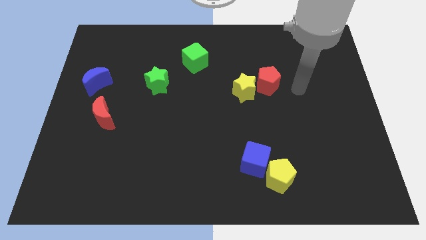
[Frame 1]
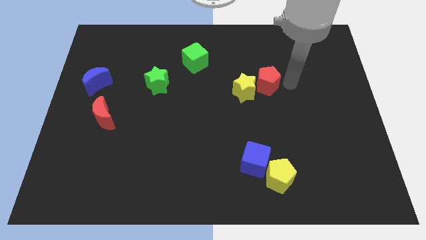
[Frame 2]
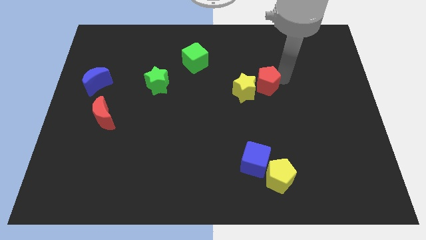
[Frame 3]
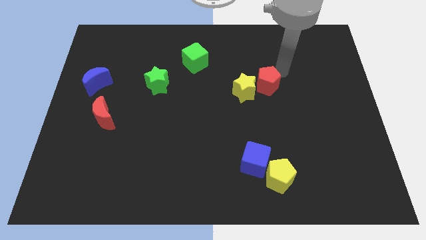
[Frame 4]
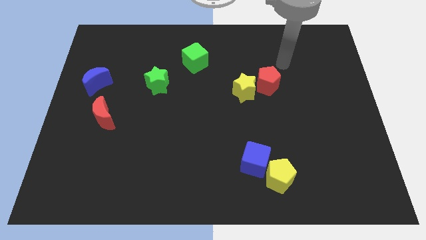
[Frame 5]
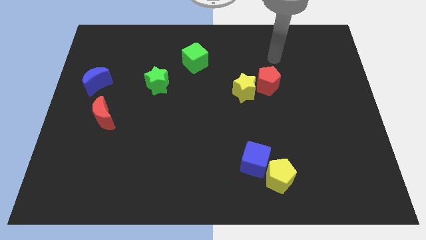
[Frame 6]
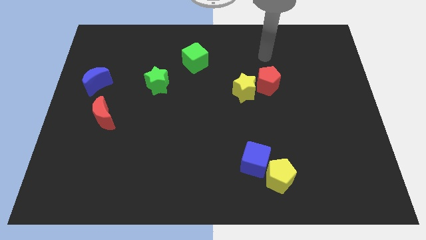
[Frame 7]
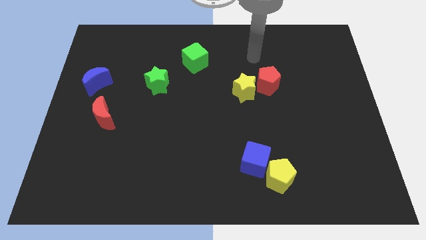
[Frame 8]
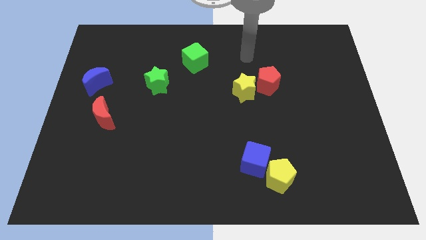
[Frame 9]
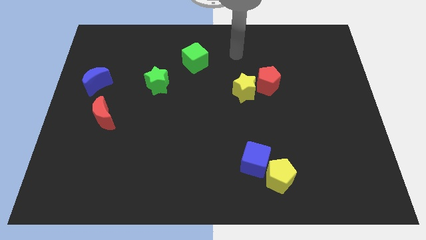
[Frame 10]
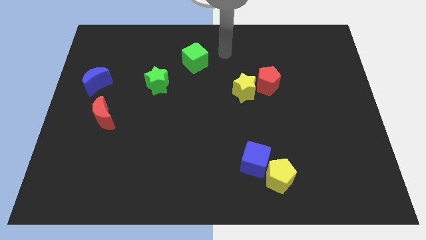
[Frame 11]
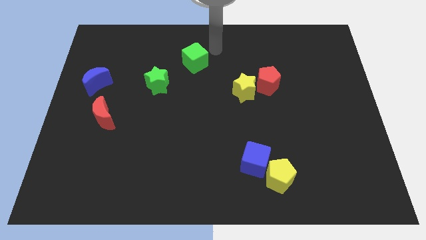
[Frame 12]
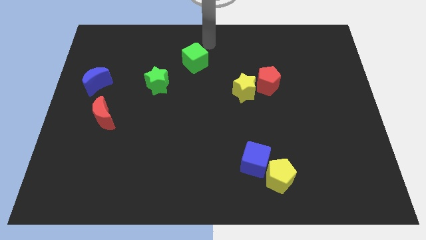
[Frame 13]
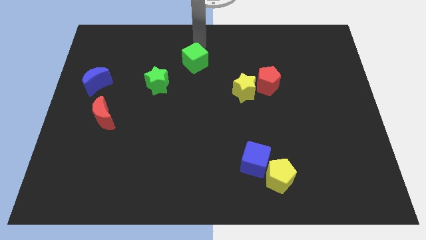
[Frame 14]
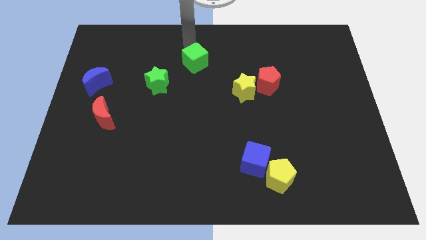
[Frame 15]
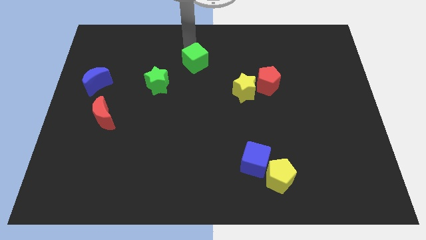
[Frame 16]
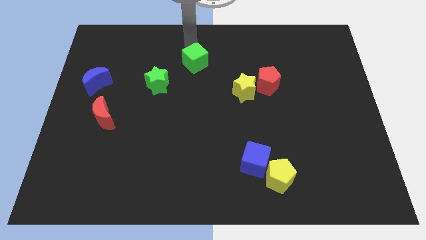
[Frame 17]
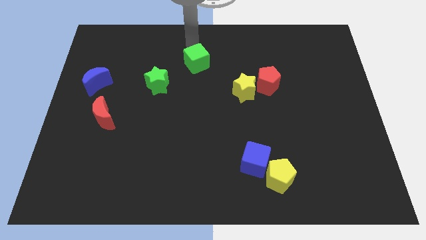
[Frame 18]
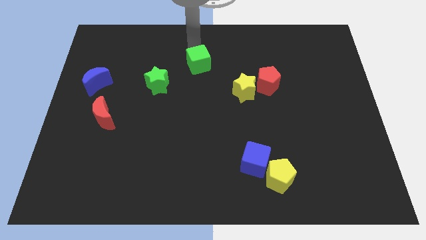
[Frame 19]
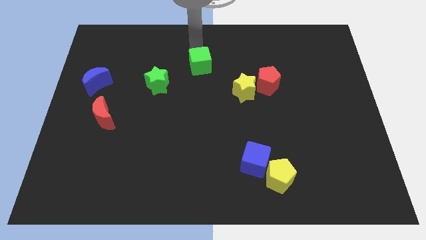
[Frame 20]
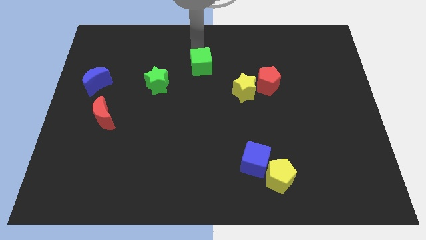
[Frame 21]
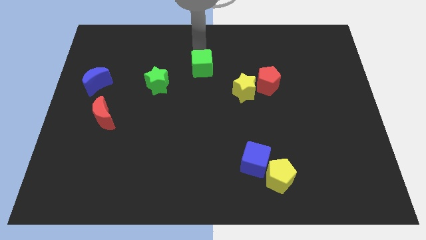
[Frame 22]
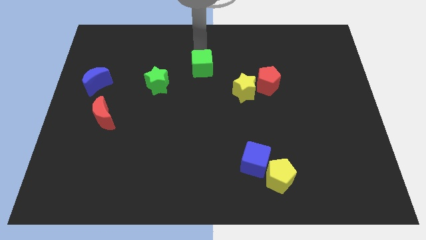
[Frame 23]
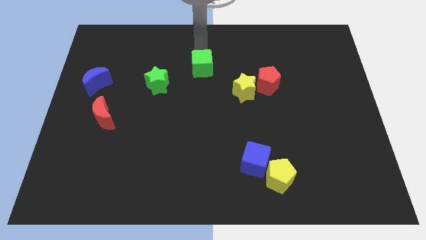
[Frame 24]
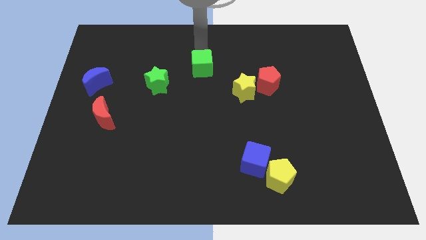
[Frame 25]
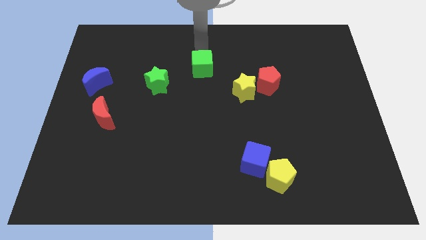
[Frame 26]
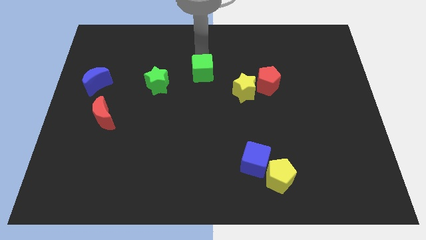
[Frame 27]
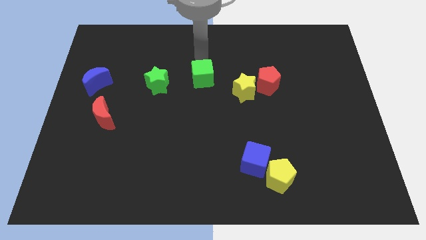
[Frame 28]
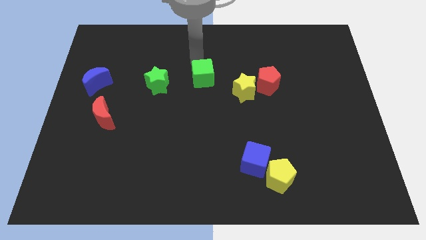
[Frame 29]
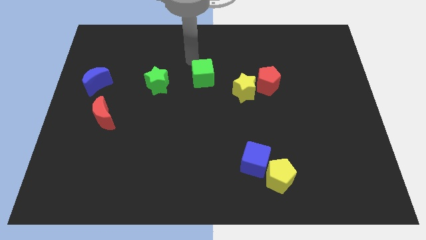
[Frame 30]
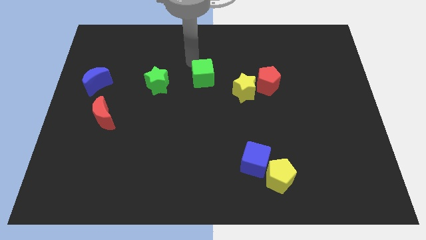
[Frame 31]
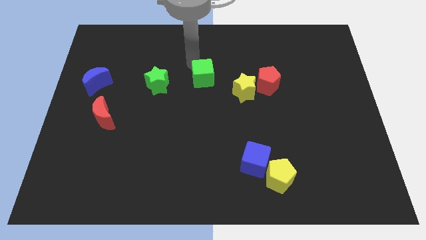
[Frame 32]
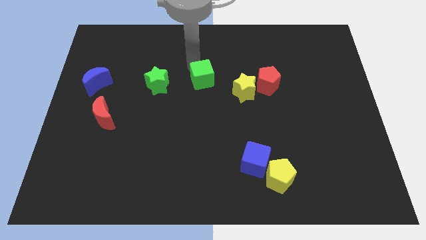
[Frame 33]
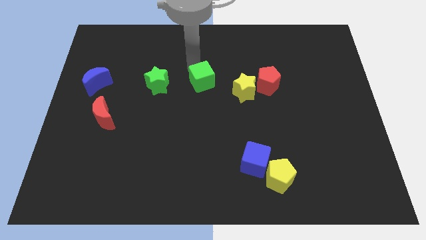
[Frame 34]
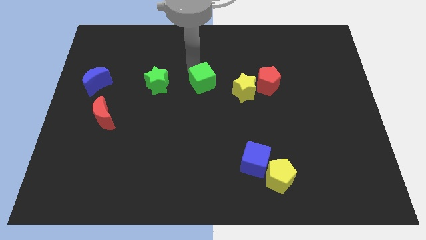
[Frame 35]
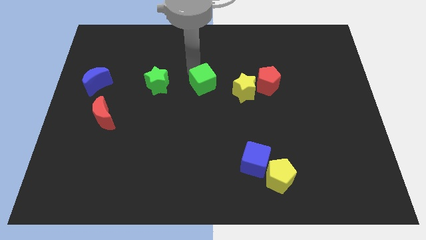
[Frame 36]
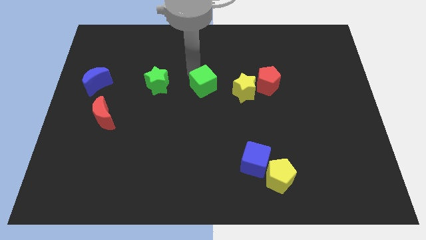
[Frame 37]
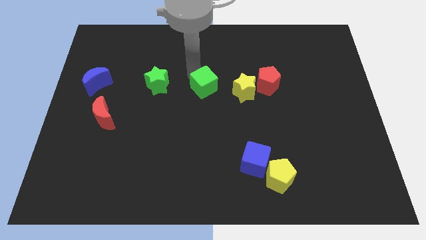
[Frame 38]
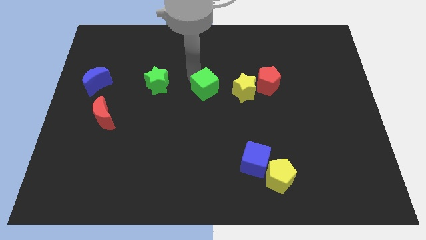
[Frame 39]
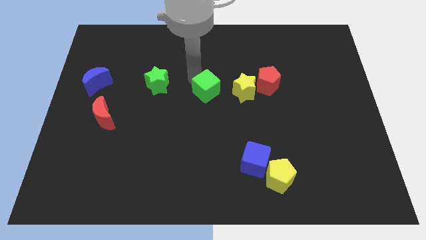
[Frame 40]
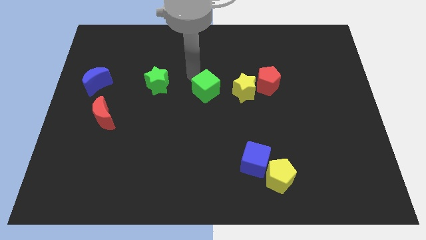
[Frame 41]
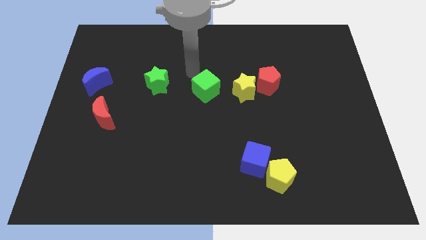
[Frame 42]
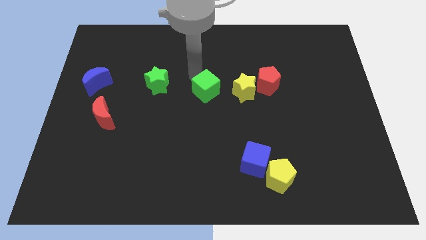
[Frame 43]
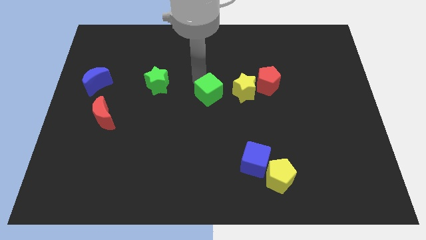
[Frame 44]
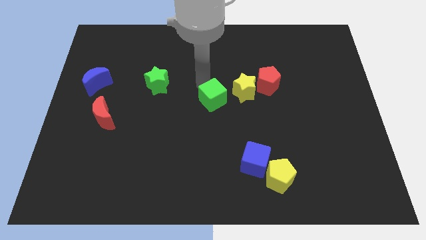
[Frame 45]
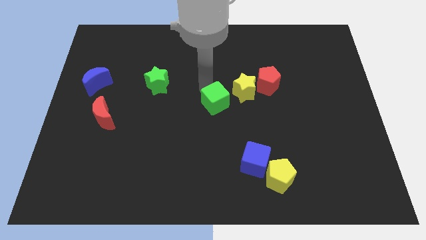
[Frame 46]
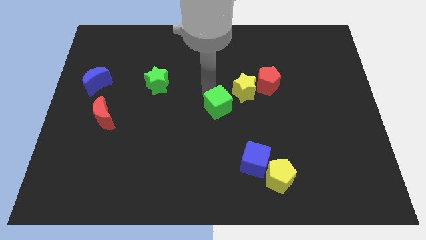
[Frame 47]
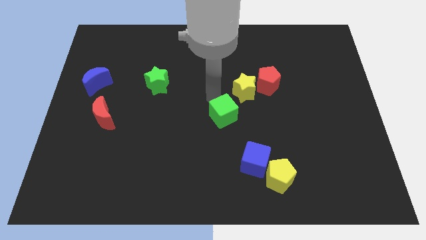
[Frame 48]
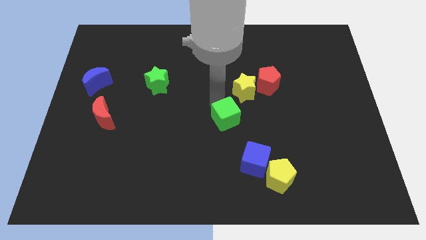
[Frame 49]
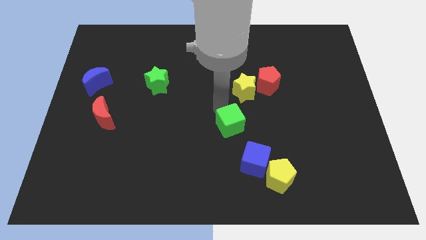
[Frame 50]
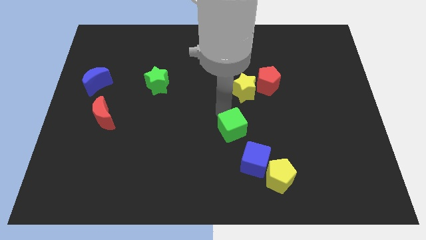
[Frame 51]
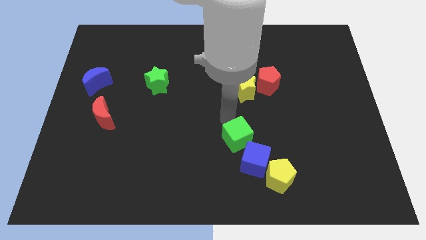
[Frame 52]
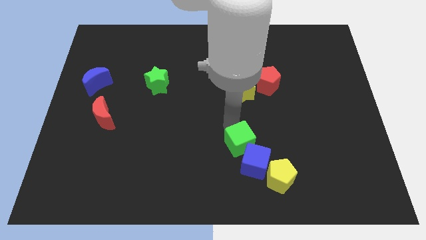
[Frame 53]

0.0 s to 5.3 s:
slide the green cube to the blue cube

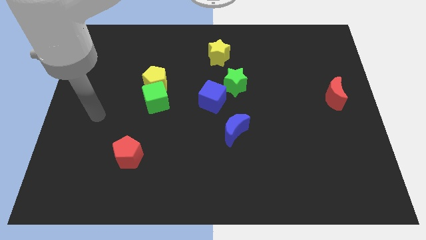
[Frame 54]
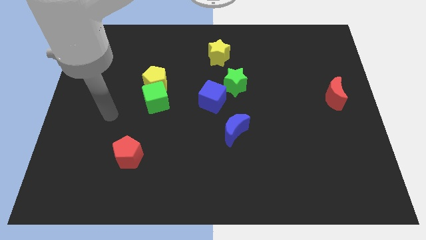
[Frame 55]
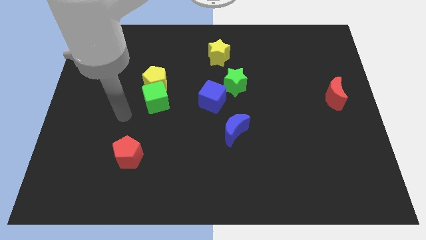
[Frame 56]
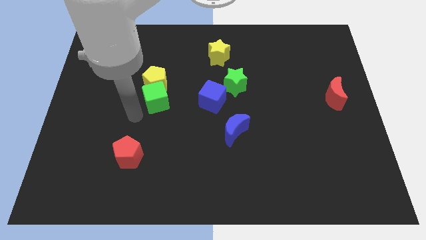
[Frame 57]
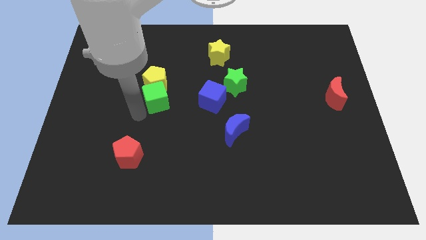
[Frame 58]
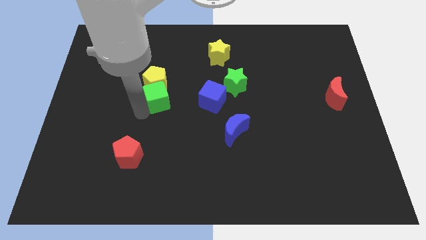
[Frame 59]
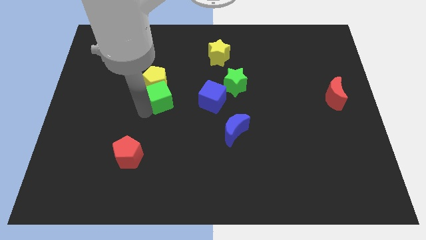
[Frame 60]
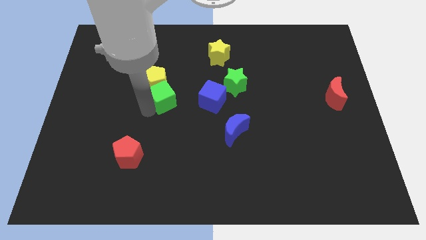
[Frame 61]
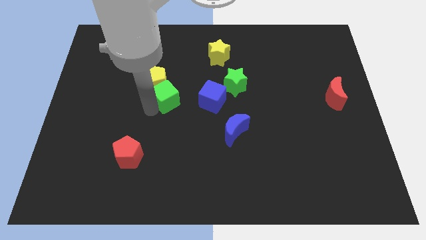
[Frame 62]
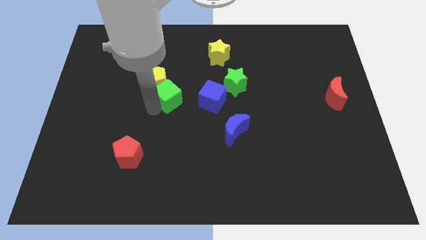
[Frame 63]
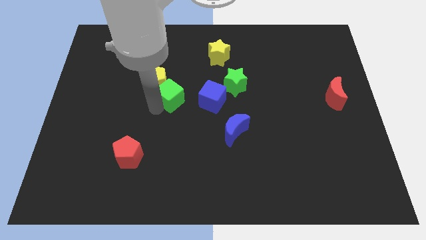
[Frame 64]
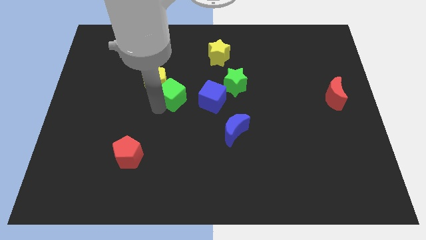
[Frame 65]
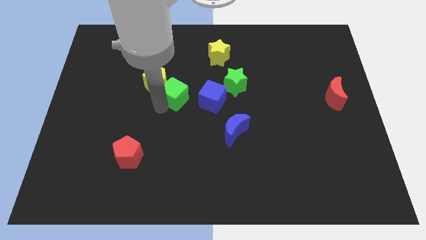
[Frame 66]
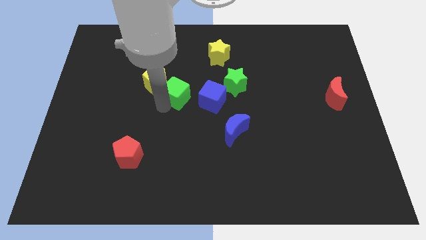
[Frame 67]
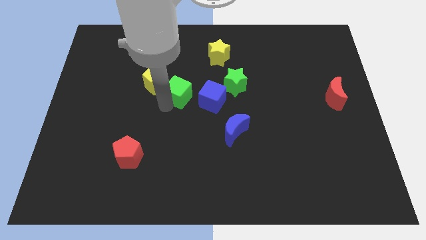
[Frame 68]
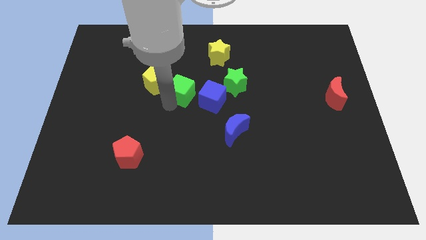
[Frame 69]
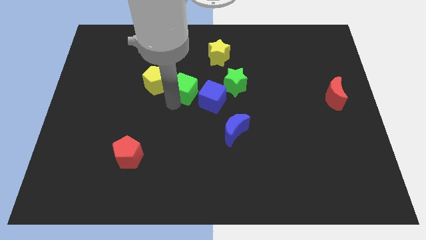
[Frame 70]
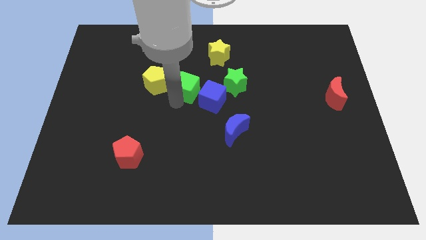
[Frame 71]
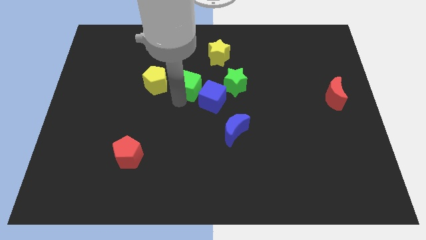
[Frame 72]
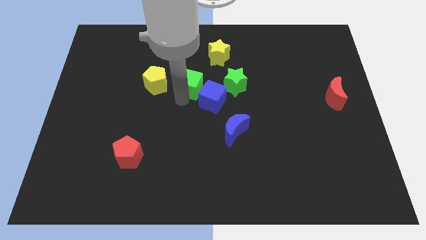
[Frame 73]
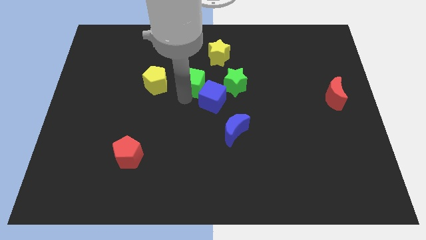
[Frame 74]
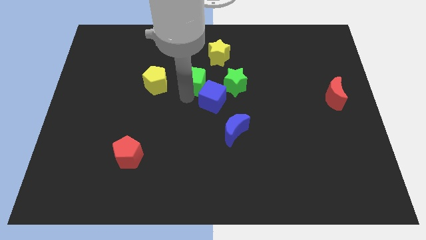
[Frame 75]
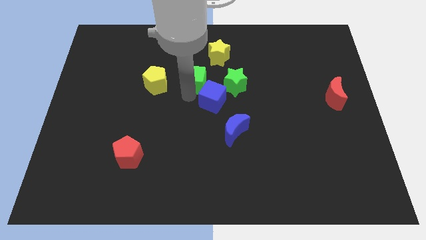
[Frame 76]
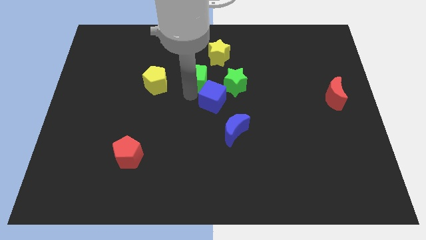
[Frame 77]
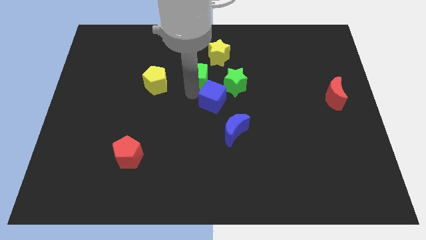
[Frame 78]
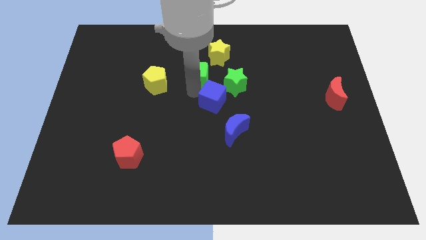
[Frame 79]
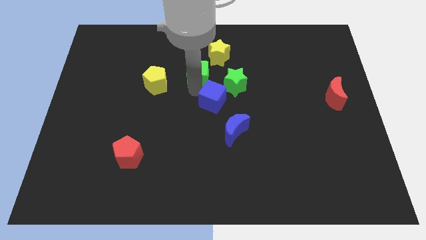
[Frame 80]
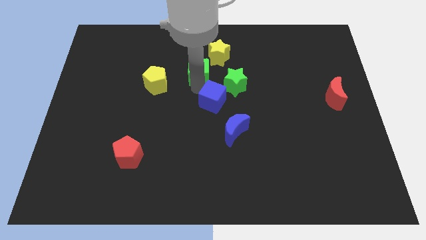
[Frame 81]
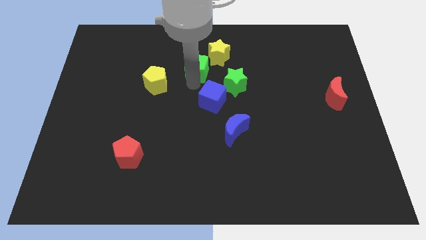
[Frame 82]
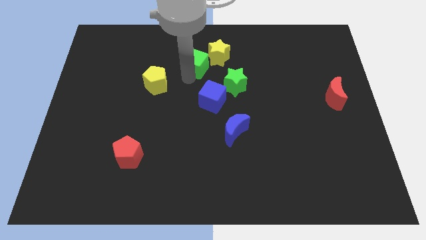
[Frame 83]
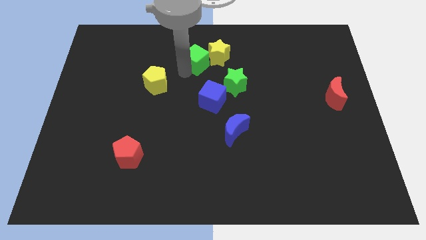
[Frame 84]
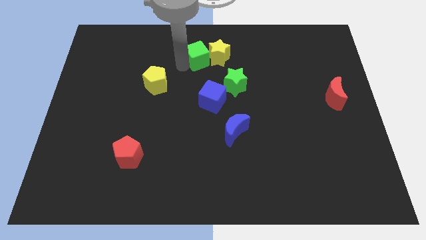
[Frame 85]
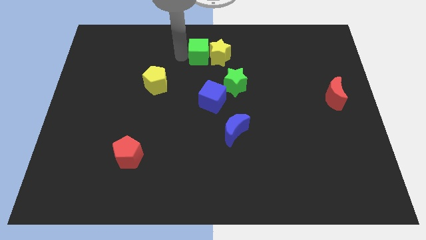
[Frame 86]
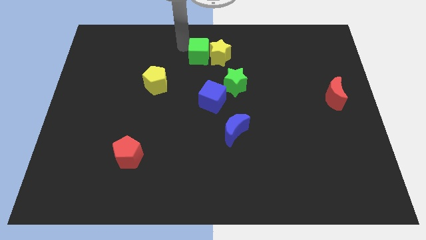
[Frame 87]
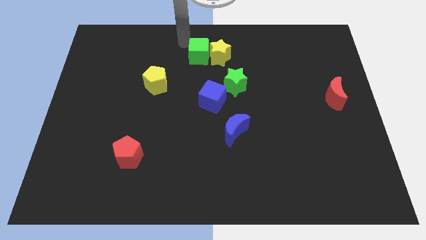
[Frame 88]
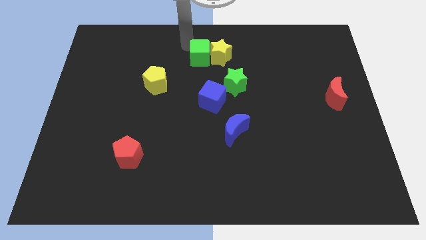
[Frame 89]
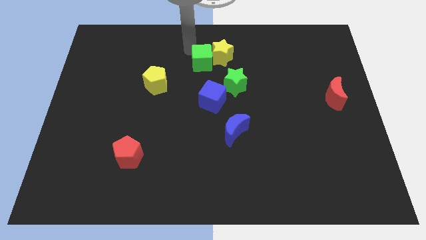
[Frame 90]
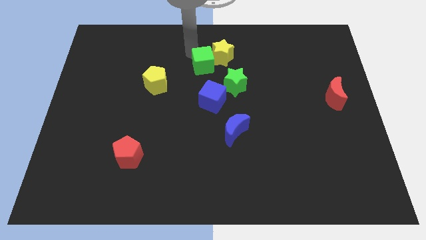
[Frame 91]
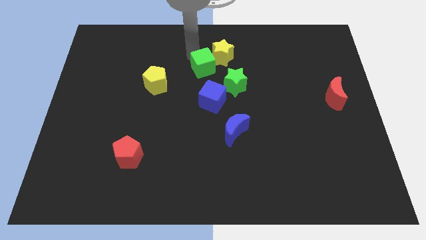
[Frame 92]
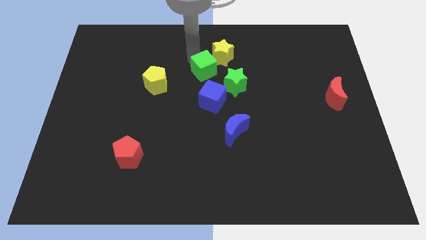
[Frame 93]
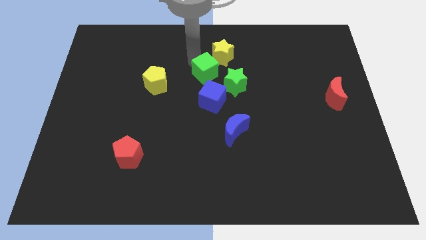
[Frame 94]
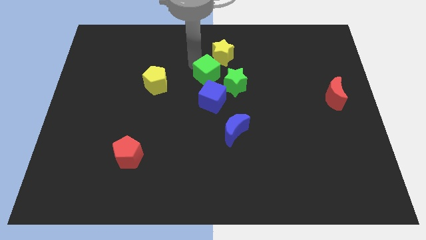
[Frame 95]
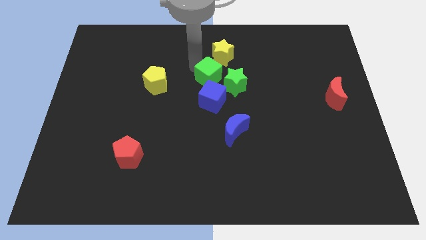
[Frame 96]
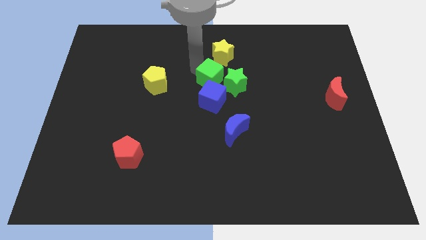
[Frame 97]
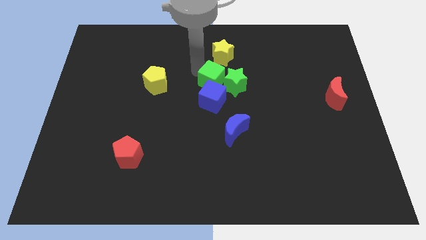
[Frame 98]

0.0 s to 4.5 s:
put the green cube close to the green star
